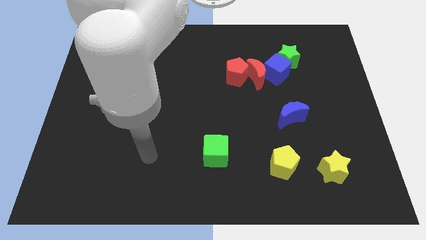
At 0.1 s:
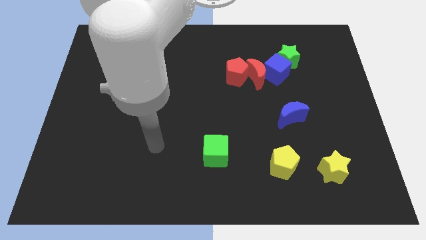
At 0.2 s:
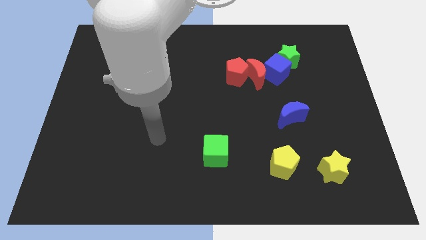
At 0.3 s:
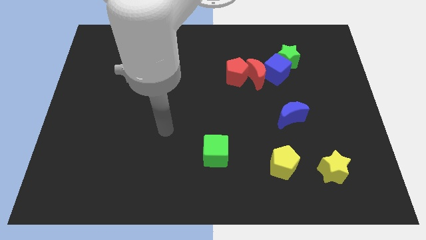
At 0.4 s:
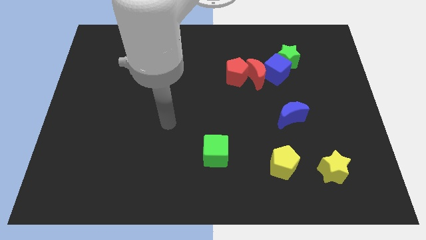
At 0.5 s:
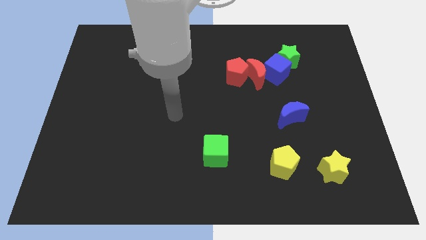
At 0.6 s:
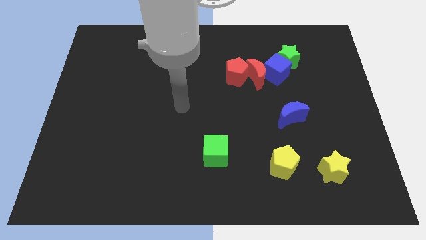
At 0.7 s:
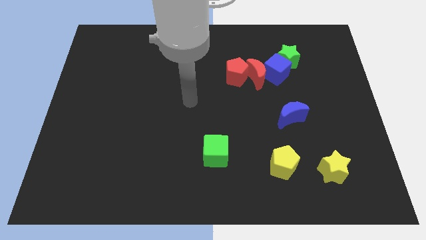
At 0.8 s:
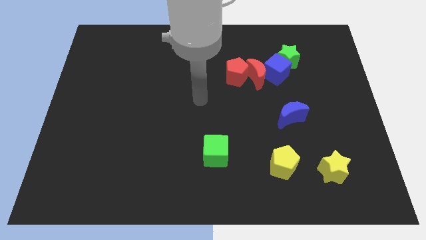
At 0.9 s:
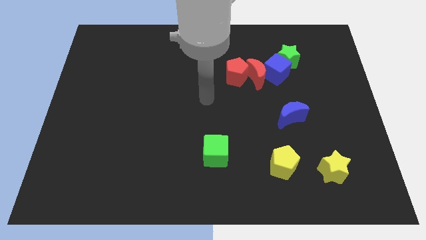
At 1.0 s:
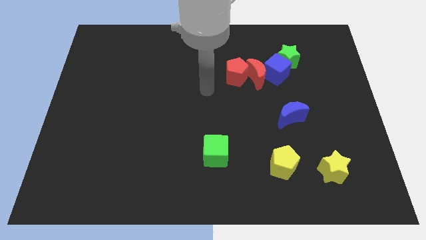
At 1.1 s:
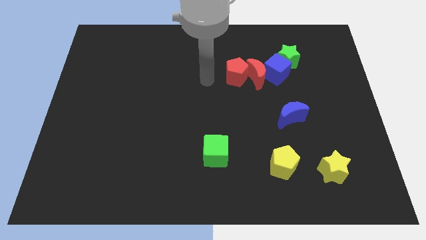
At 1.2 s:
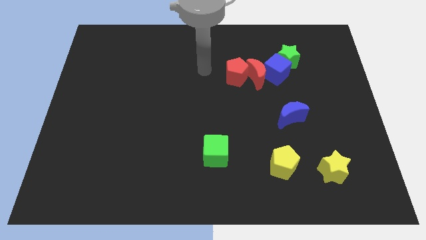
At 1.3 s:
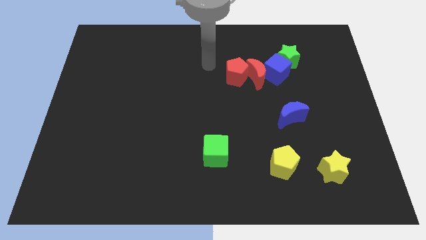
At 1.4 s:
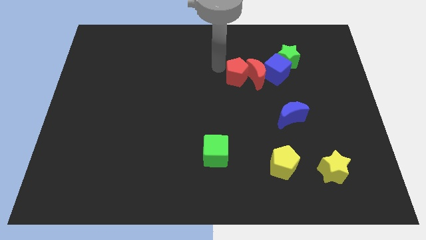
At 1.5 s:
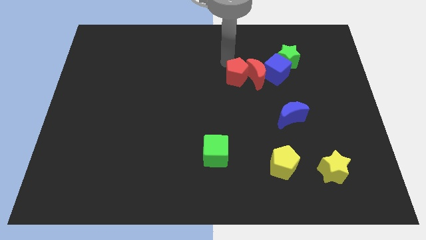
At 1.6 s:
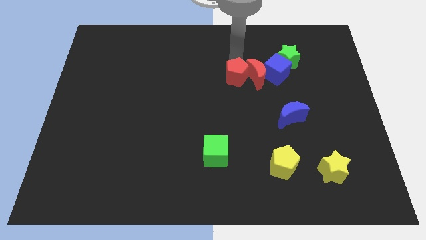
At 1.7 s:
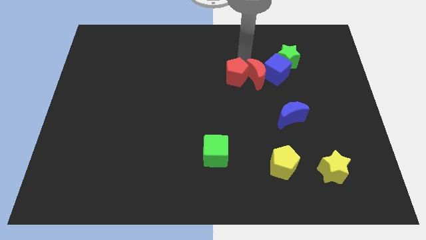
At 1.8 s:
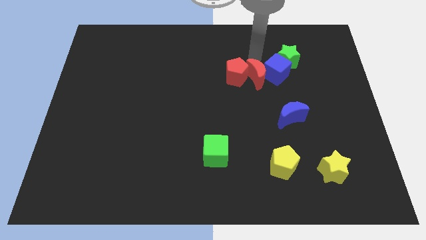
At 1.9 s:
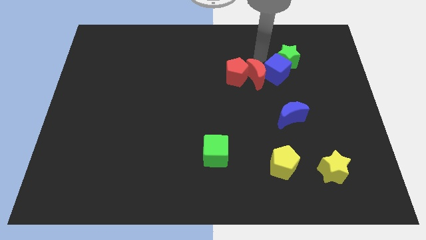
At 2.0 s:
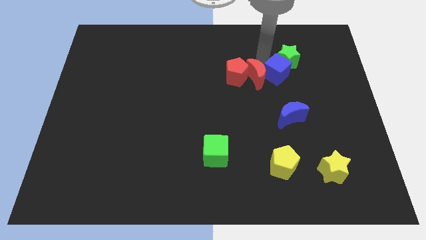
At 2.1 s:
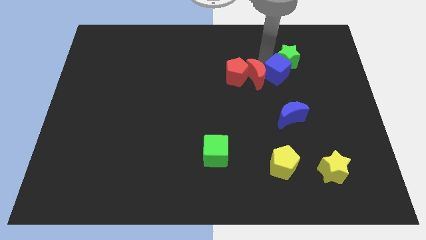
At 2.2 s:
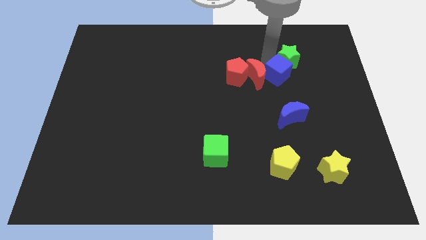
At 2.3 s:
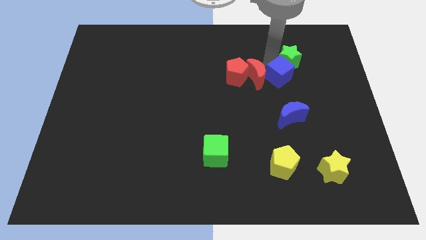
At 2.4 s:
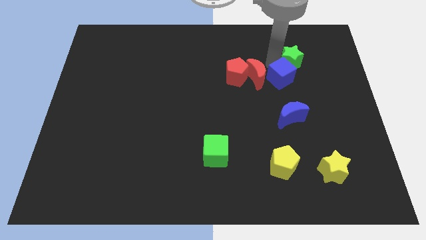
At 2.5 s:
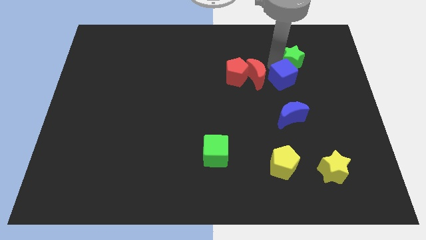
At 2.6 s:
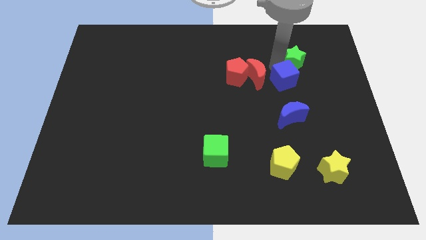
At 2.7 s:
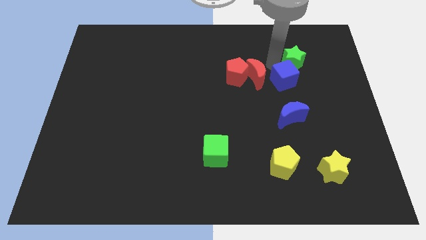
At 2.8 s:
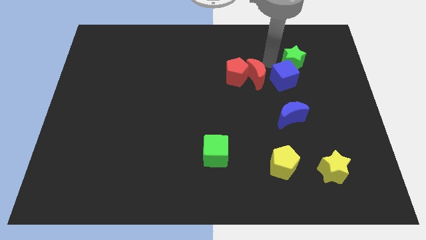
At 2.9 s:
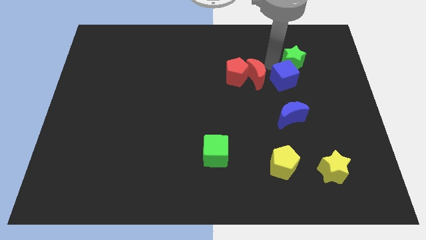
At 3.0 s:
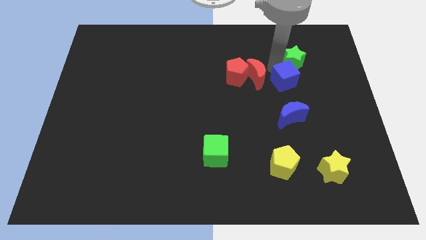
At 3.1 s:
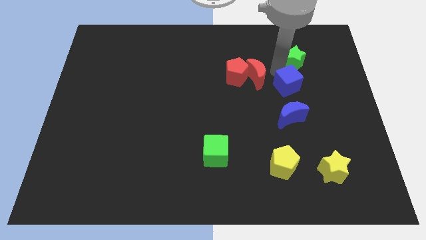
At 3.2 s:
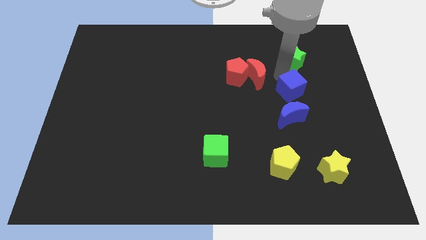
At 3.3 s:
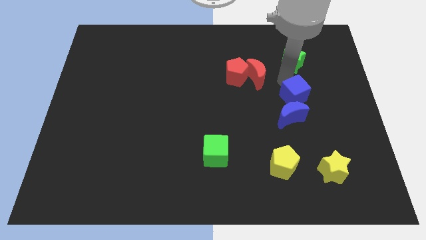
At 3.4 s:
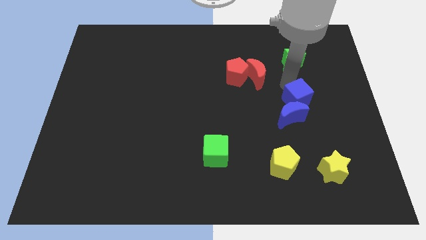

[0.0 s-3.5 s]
pull the blue cube apart from the red moon and green star

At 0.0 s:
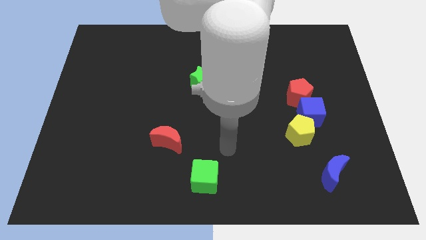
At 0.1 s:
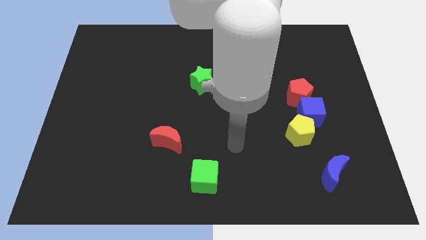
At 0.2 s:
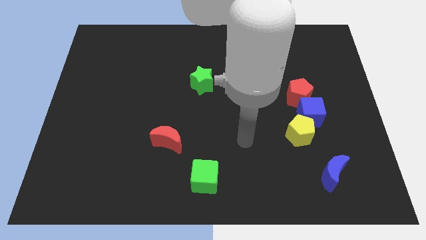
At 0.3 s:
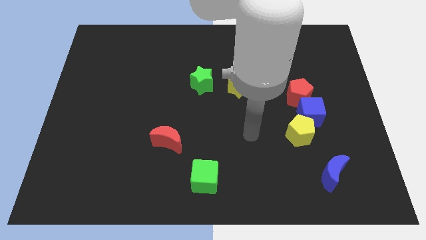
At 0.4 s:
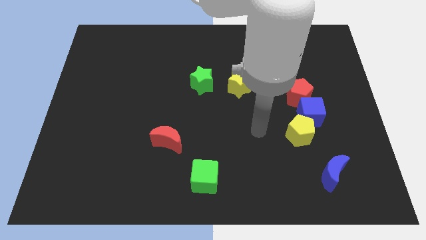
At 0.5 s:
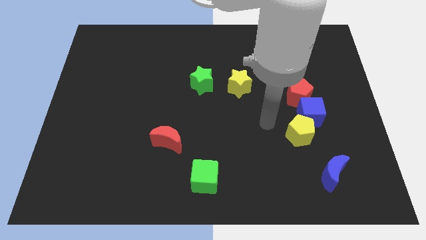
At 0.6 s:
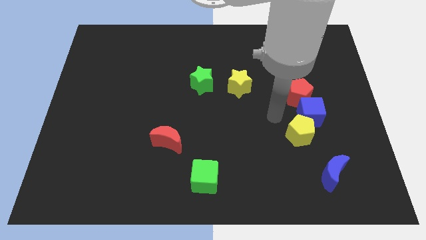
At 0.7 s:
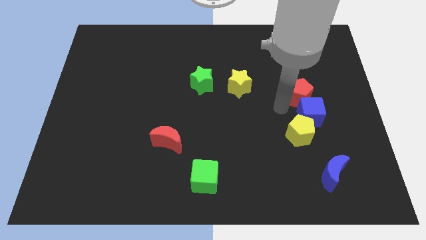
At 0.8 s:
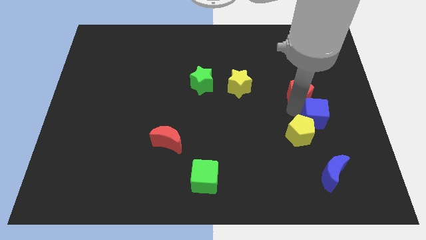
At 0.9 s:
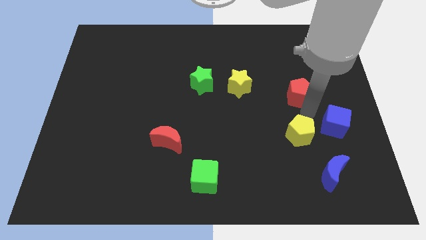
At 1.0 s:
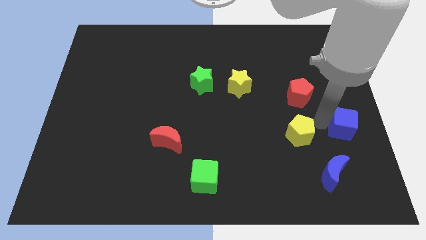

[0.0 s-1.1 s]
separate the yellow pentagon from the blue cube

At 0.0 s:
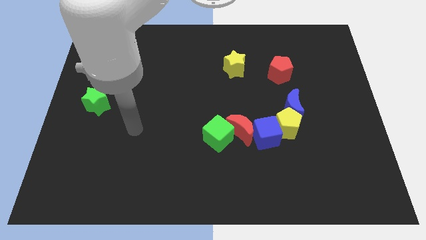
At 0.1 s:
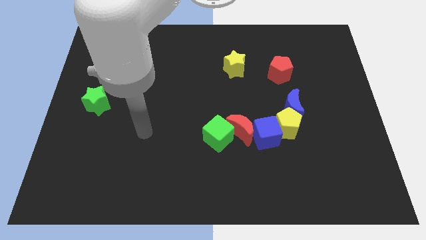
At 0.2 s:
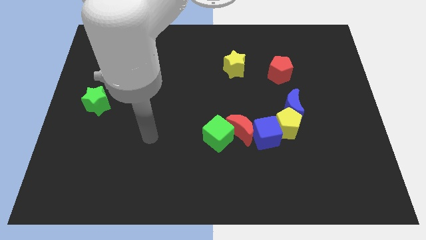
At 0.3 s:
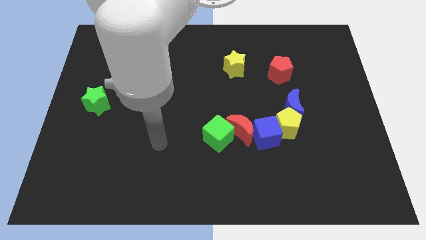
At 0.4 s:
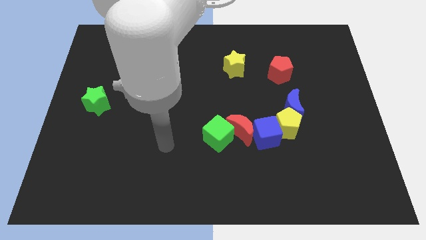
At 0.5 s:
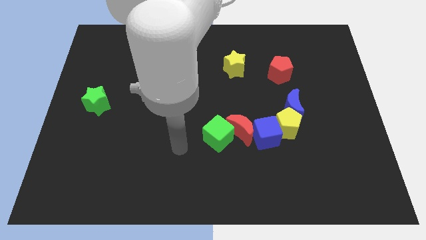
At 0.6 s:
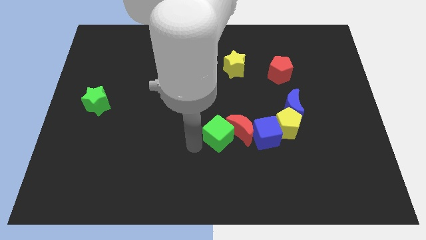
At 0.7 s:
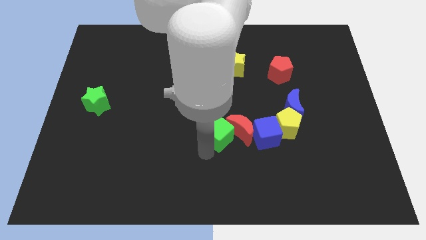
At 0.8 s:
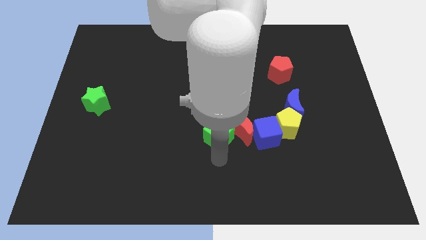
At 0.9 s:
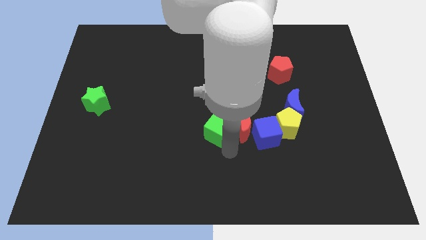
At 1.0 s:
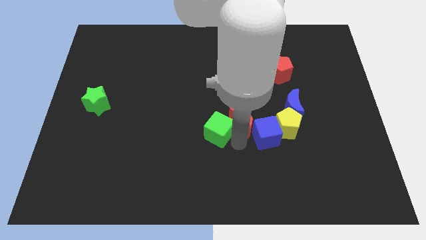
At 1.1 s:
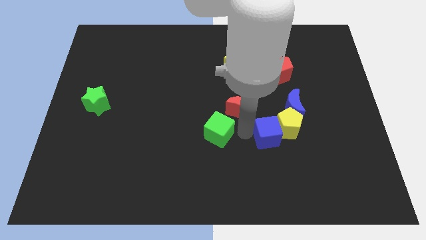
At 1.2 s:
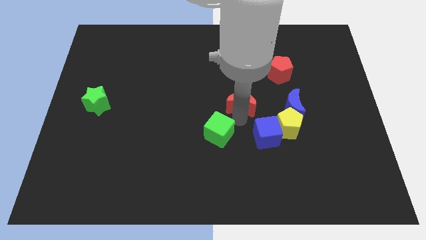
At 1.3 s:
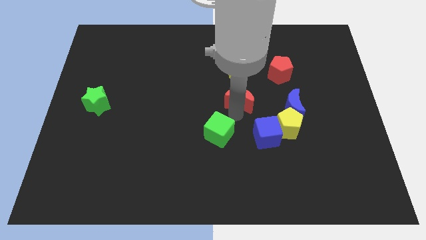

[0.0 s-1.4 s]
separate the green cube from the red moon

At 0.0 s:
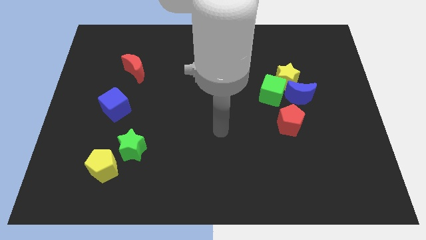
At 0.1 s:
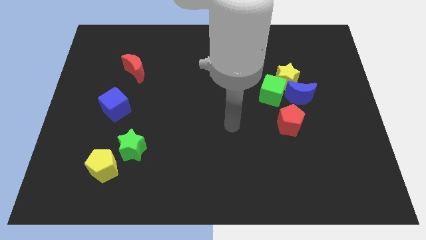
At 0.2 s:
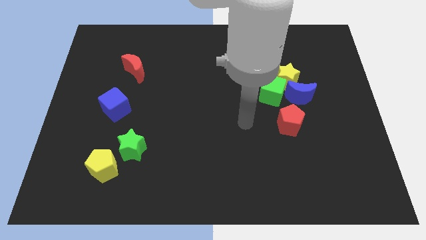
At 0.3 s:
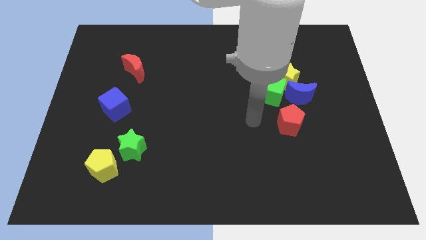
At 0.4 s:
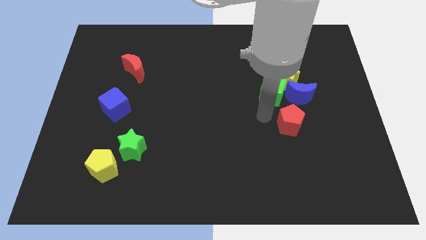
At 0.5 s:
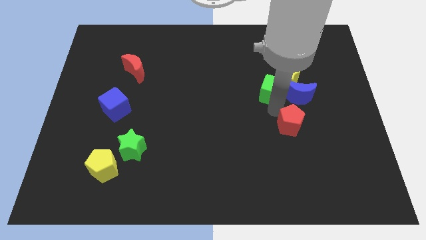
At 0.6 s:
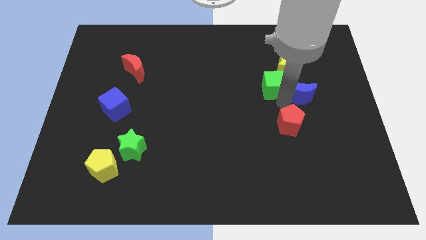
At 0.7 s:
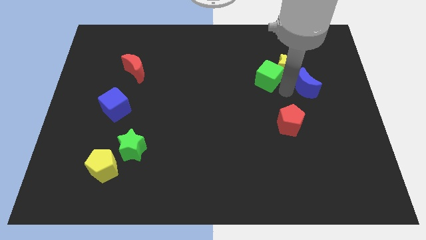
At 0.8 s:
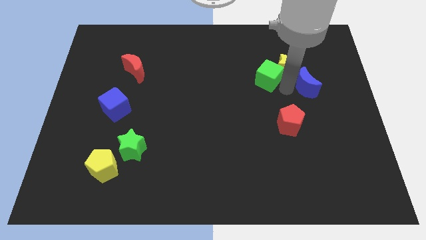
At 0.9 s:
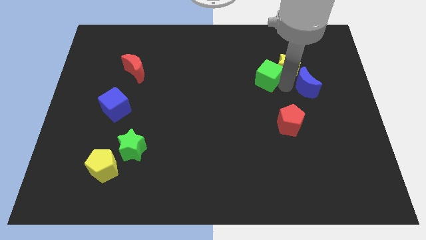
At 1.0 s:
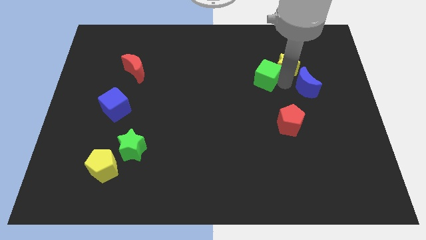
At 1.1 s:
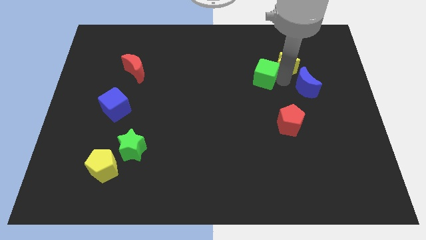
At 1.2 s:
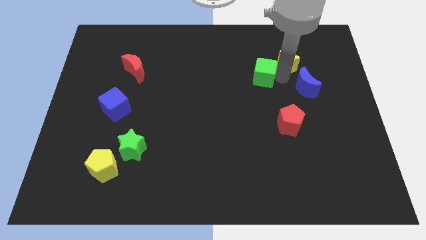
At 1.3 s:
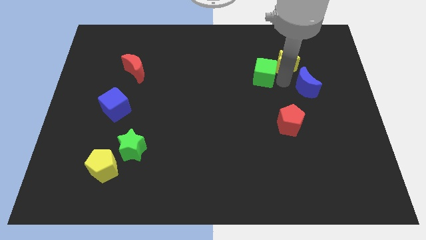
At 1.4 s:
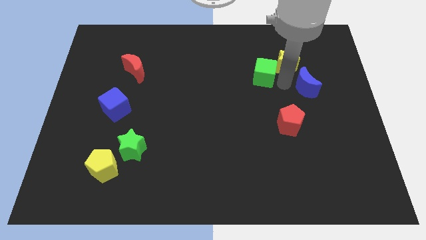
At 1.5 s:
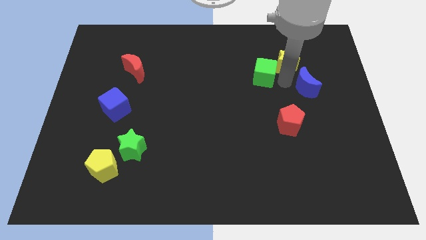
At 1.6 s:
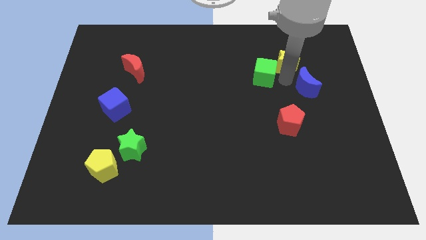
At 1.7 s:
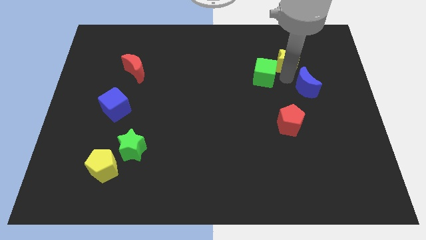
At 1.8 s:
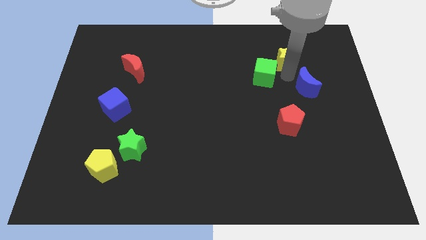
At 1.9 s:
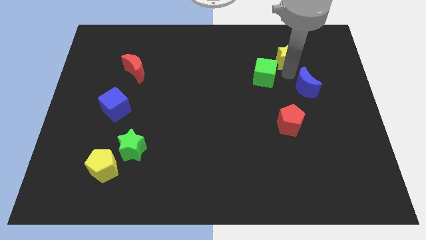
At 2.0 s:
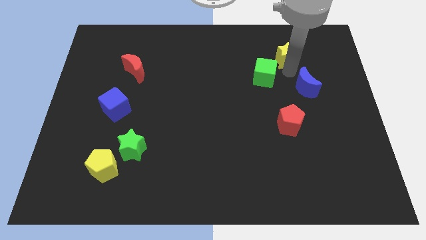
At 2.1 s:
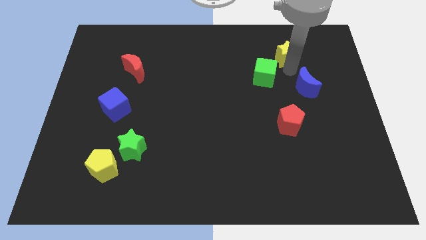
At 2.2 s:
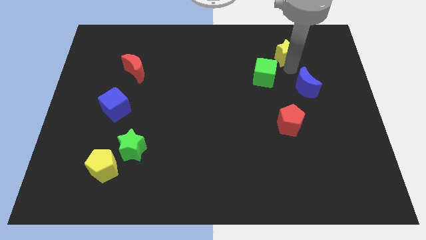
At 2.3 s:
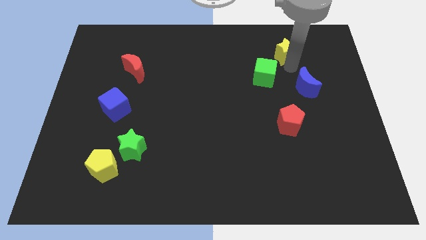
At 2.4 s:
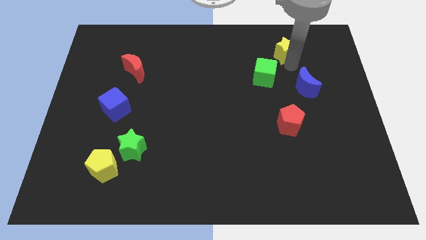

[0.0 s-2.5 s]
pull the yellow star apart from the green cube and blue moon

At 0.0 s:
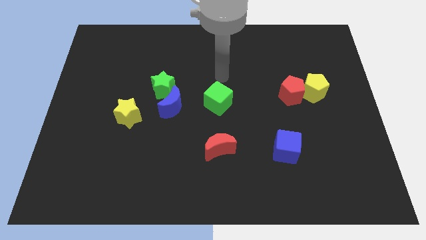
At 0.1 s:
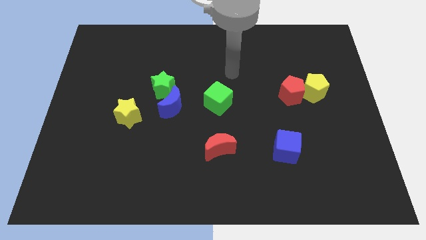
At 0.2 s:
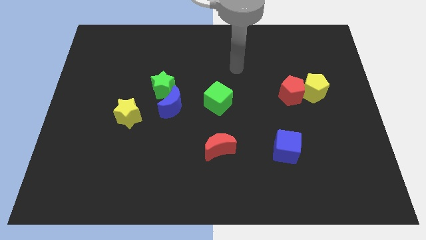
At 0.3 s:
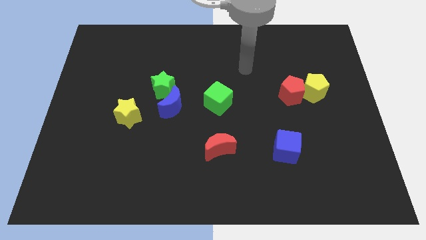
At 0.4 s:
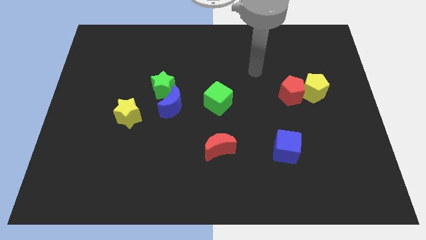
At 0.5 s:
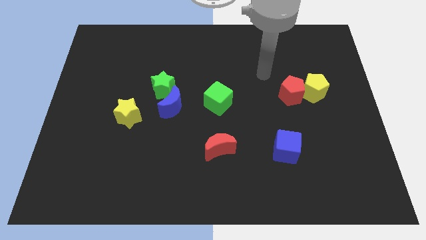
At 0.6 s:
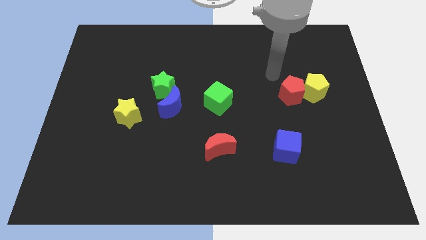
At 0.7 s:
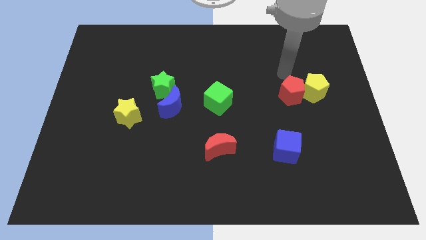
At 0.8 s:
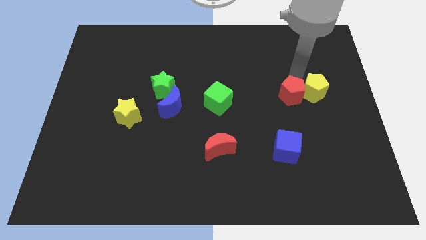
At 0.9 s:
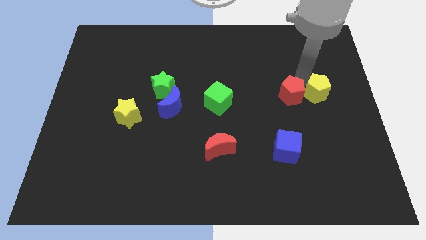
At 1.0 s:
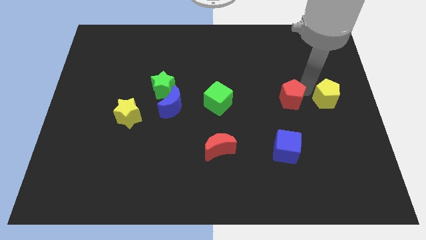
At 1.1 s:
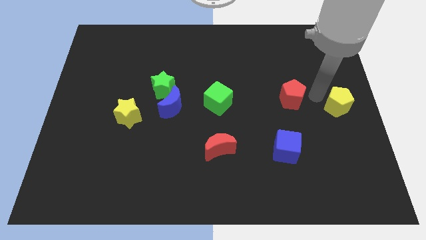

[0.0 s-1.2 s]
separate the red pentagon from the yellow pentagon
